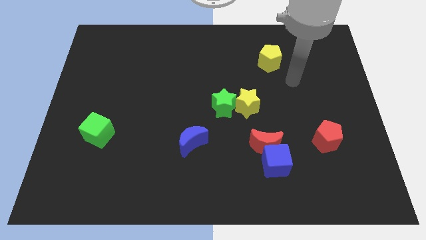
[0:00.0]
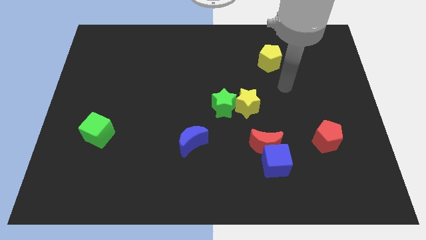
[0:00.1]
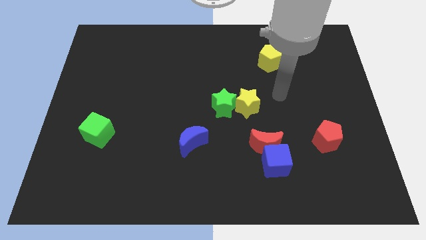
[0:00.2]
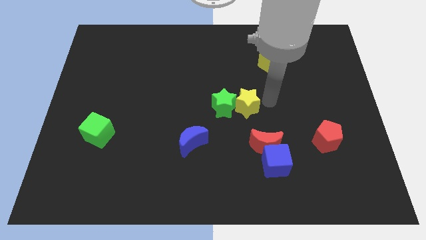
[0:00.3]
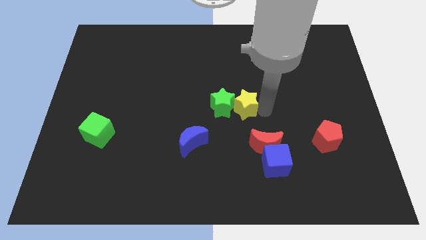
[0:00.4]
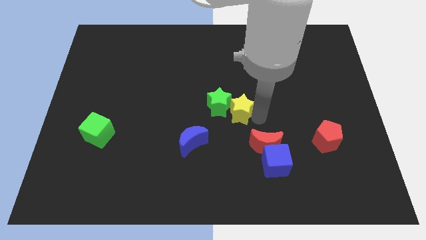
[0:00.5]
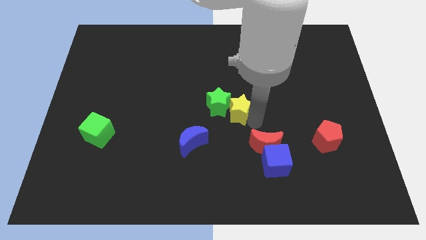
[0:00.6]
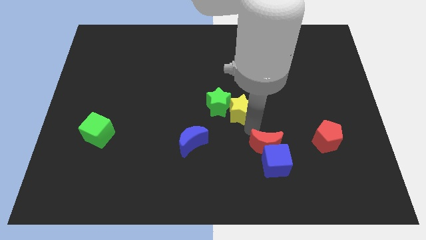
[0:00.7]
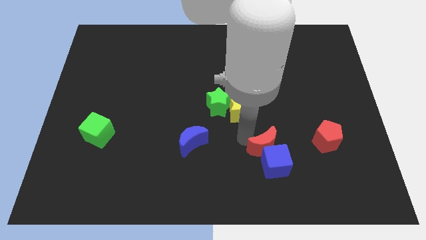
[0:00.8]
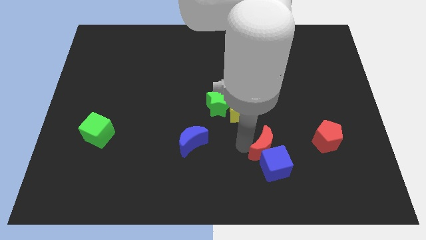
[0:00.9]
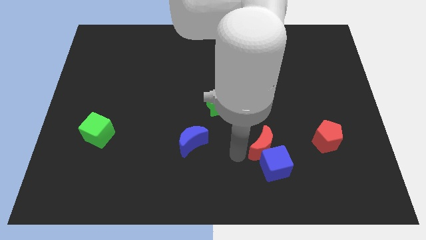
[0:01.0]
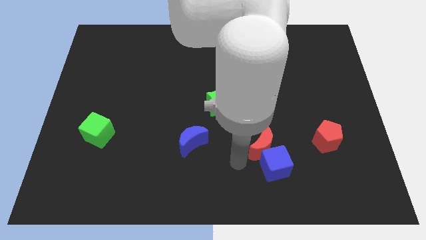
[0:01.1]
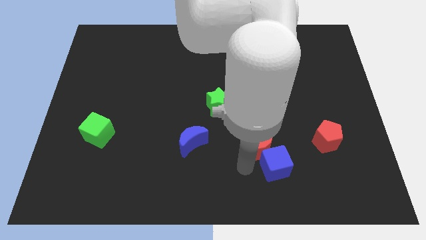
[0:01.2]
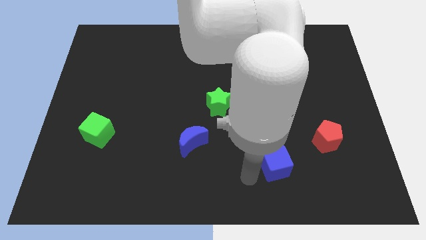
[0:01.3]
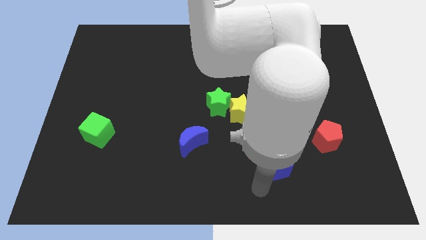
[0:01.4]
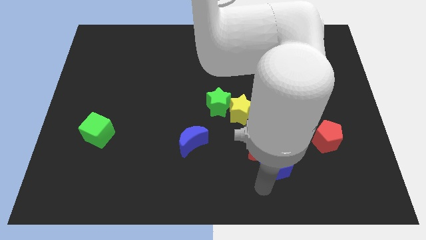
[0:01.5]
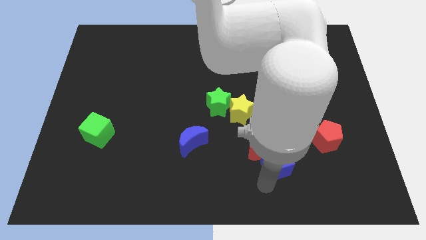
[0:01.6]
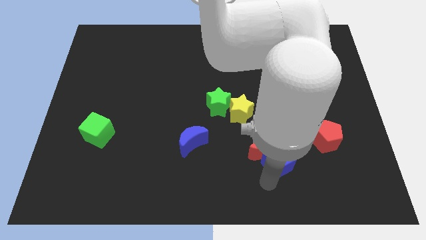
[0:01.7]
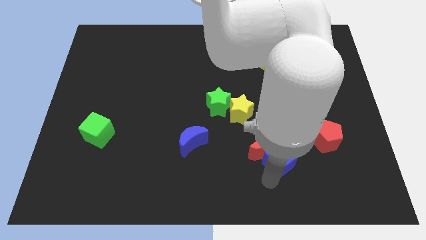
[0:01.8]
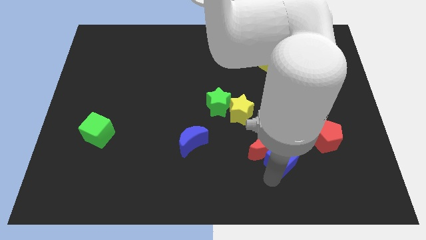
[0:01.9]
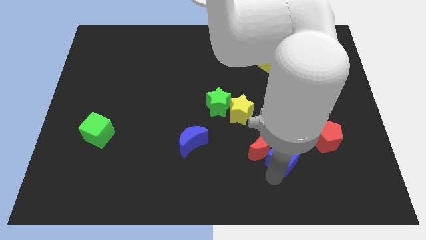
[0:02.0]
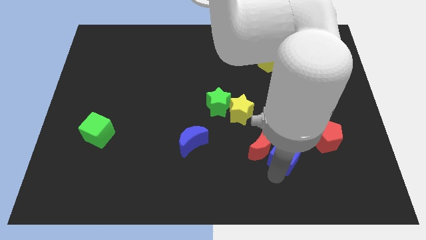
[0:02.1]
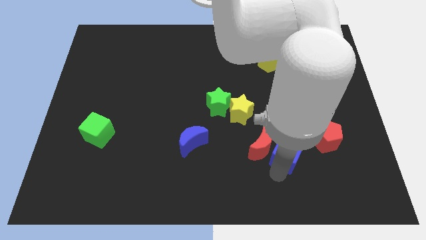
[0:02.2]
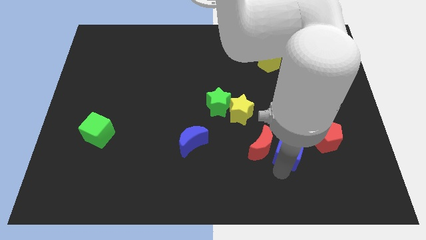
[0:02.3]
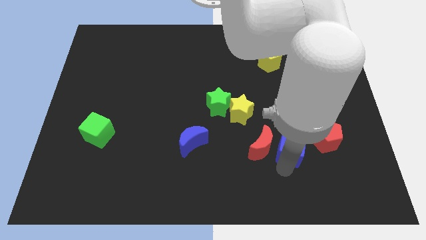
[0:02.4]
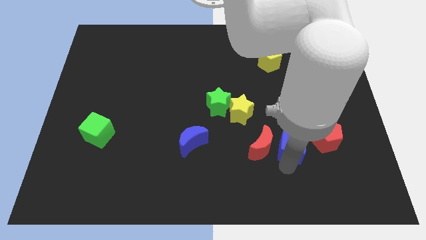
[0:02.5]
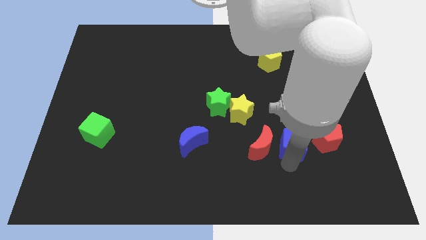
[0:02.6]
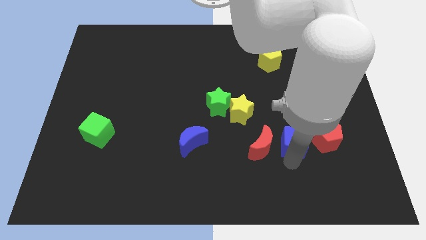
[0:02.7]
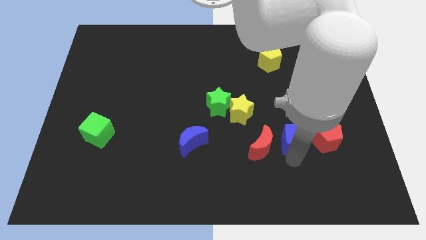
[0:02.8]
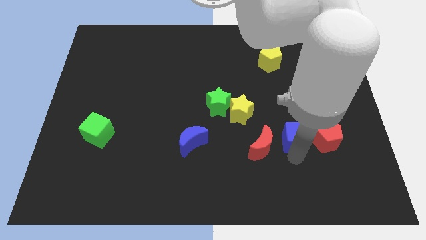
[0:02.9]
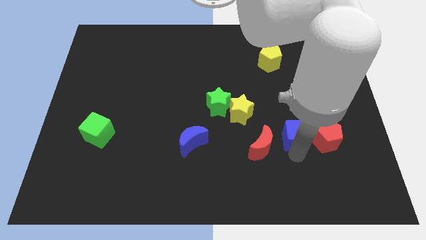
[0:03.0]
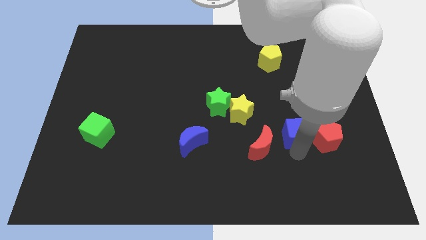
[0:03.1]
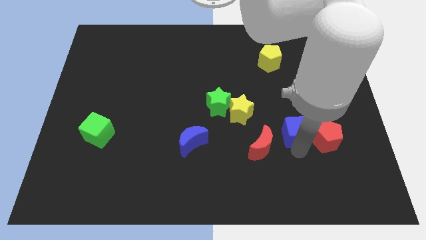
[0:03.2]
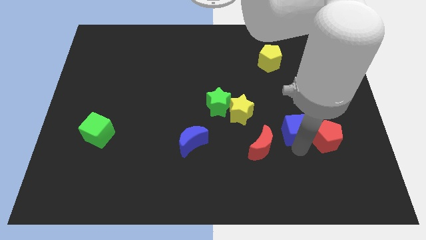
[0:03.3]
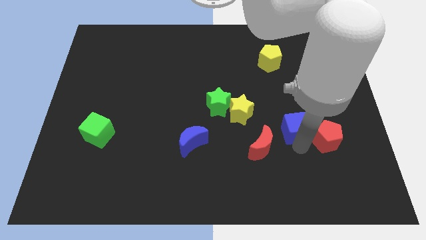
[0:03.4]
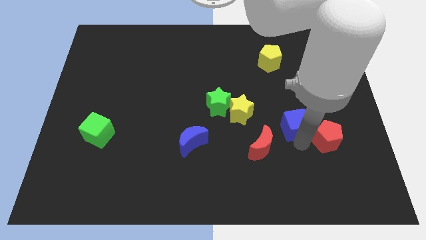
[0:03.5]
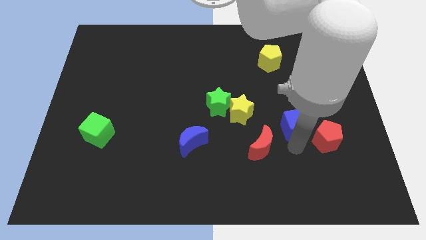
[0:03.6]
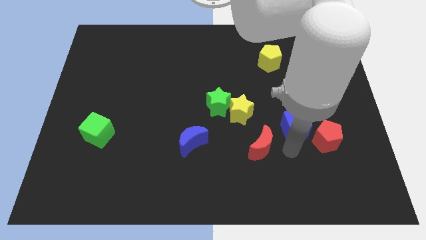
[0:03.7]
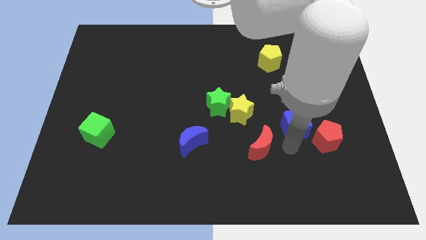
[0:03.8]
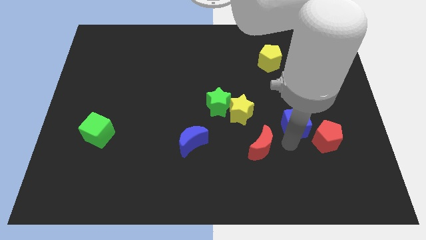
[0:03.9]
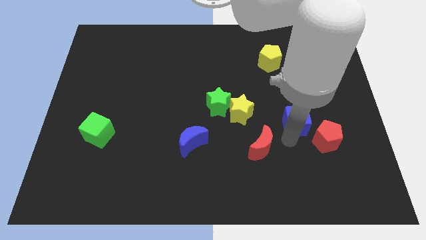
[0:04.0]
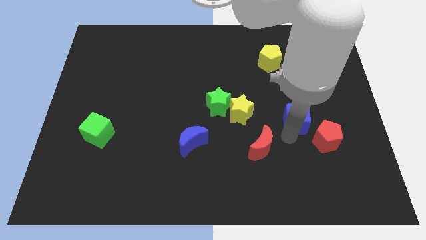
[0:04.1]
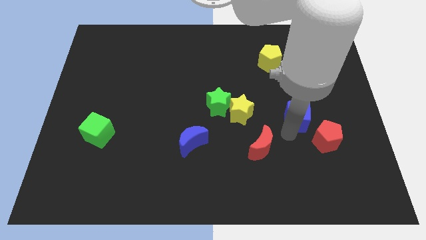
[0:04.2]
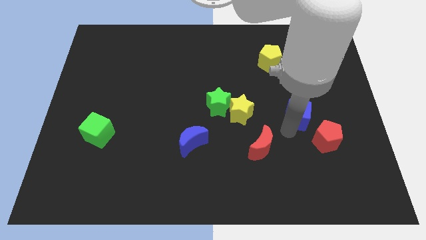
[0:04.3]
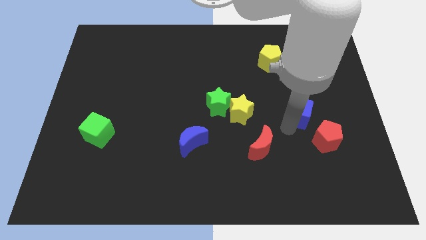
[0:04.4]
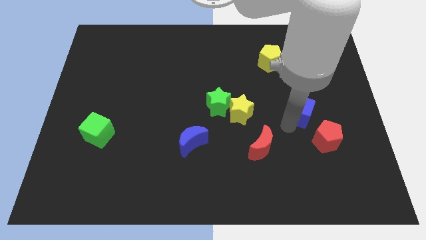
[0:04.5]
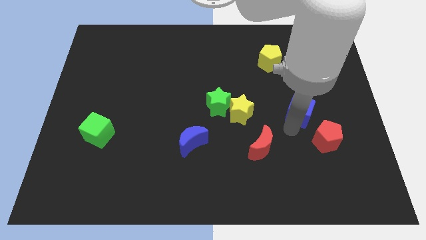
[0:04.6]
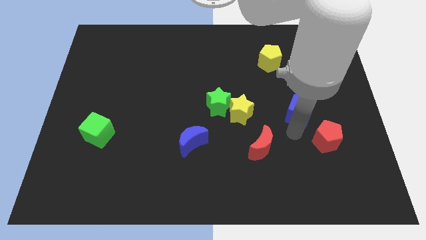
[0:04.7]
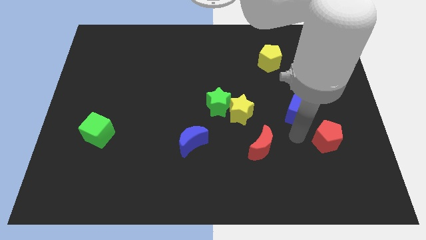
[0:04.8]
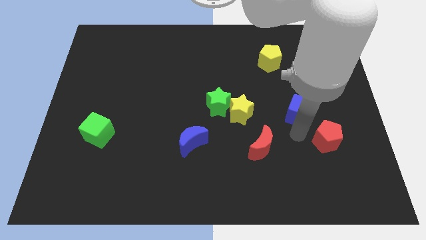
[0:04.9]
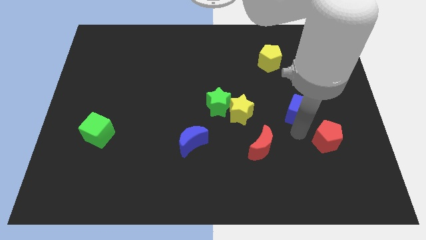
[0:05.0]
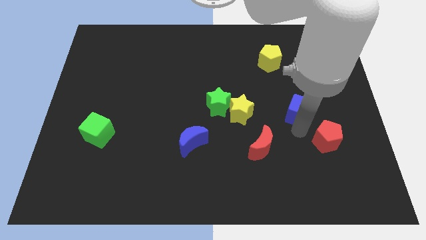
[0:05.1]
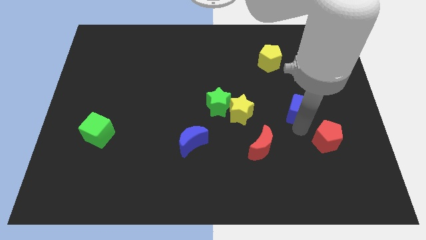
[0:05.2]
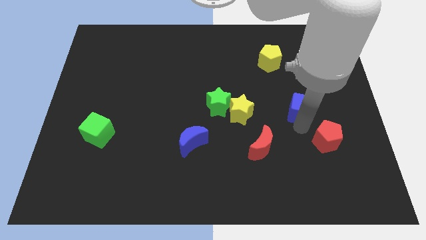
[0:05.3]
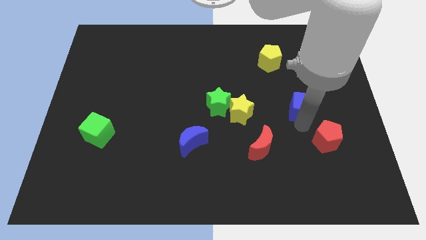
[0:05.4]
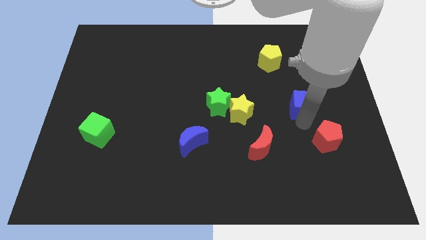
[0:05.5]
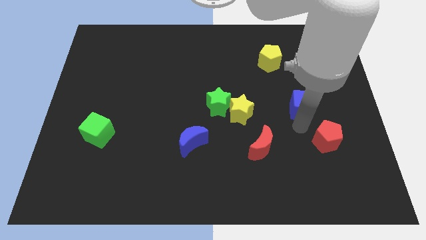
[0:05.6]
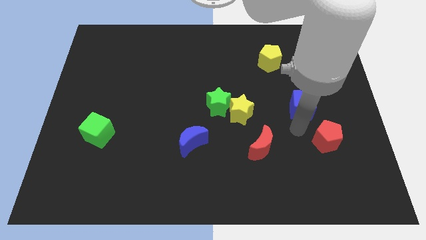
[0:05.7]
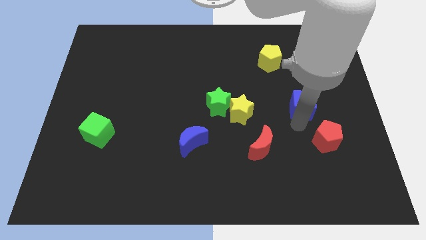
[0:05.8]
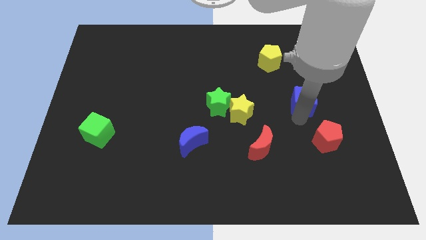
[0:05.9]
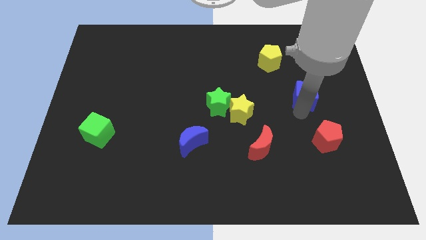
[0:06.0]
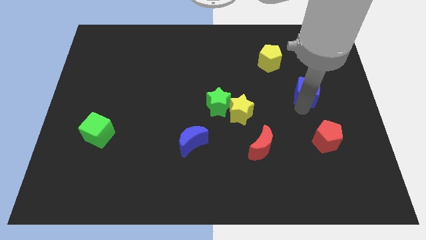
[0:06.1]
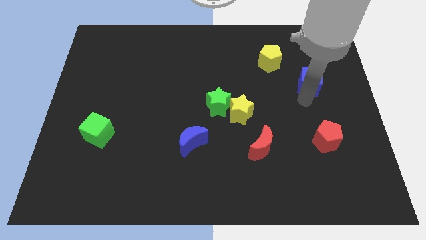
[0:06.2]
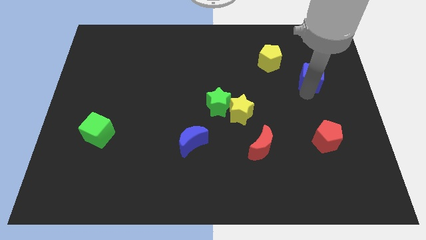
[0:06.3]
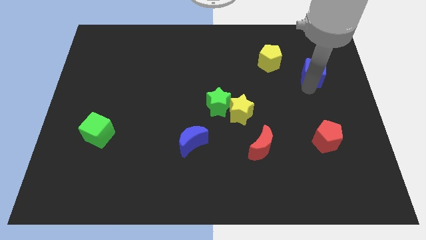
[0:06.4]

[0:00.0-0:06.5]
push the blue cube to the right of the yellow pentagon

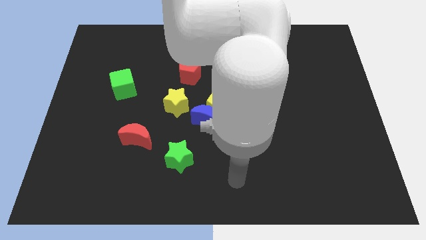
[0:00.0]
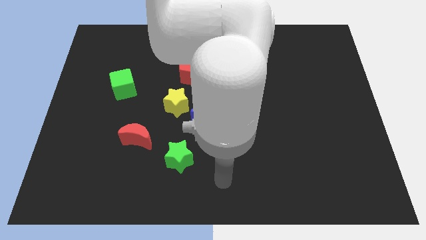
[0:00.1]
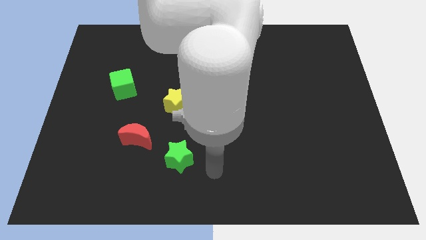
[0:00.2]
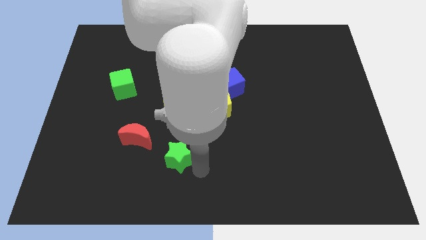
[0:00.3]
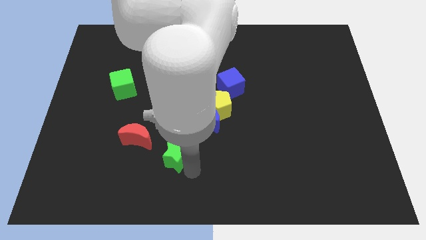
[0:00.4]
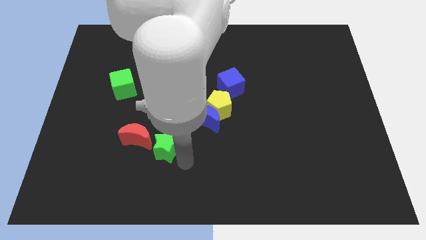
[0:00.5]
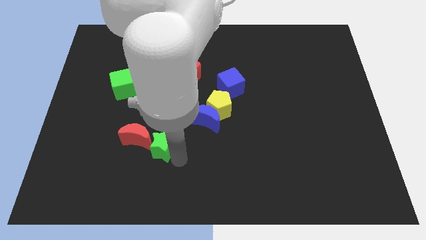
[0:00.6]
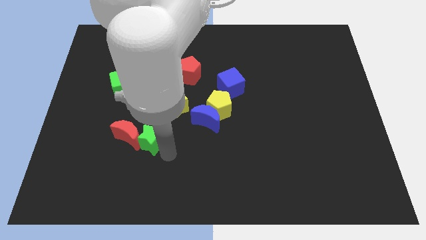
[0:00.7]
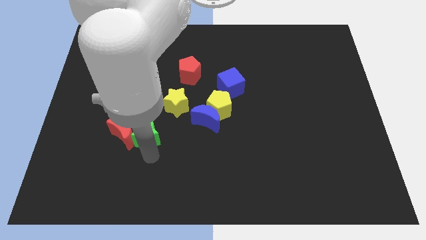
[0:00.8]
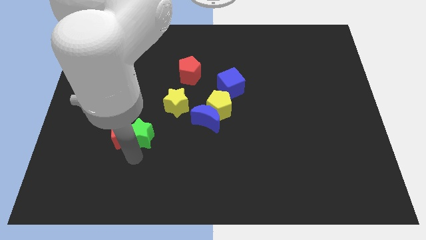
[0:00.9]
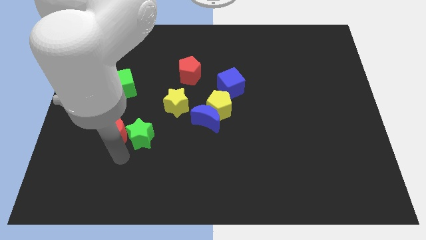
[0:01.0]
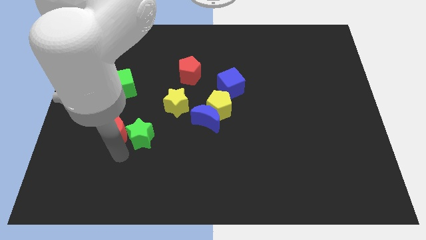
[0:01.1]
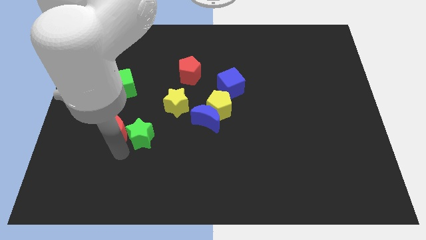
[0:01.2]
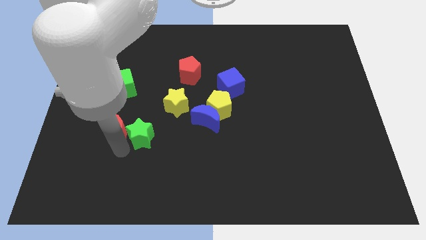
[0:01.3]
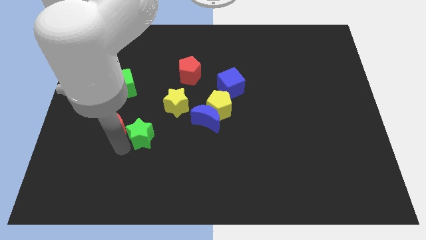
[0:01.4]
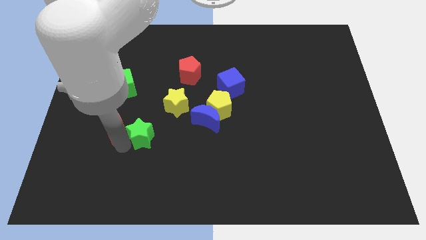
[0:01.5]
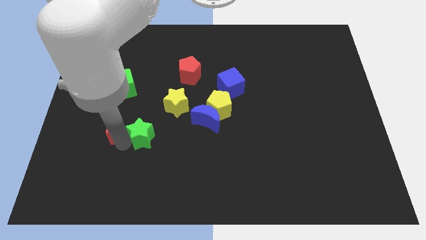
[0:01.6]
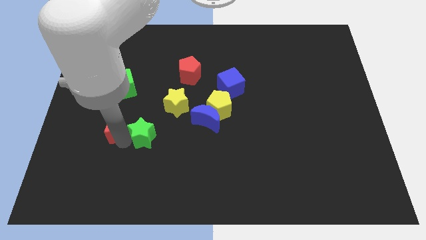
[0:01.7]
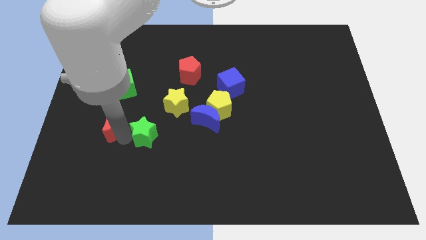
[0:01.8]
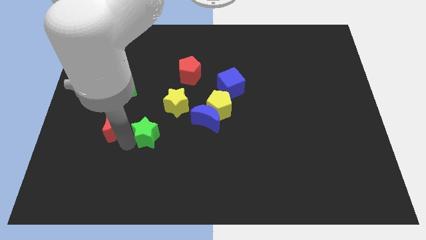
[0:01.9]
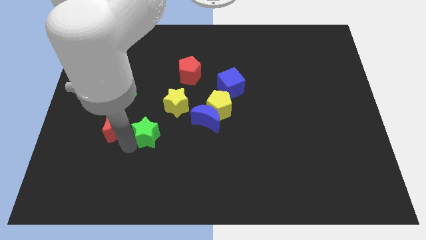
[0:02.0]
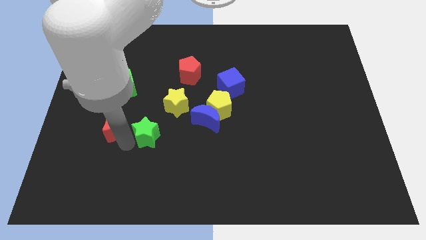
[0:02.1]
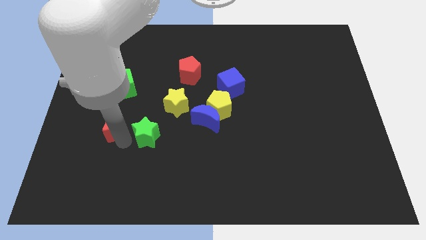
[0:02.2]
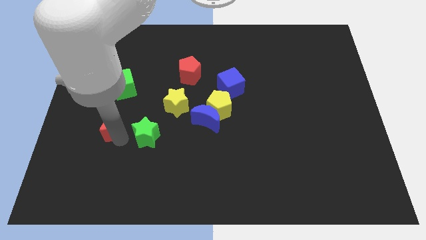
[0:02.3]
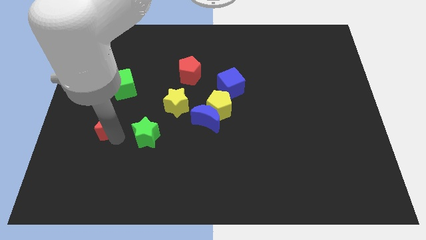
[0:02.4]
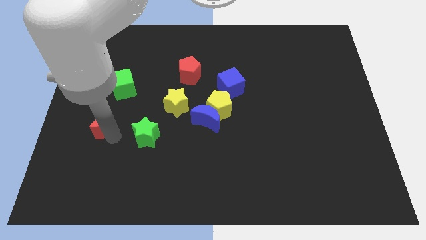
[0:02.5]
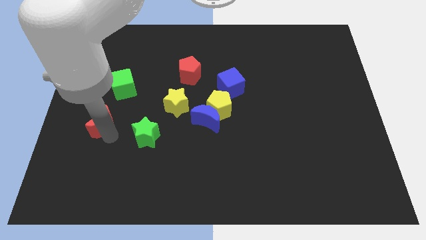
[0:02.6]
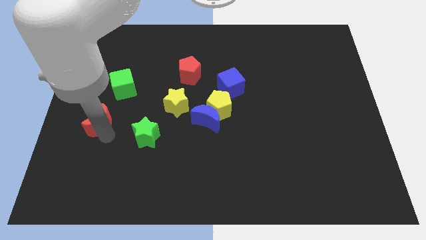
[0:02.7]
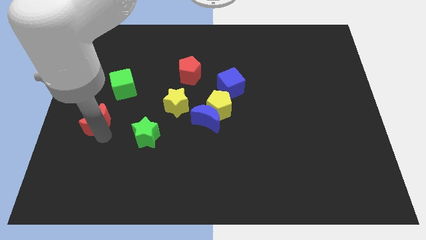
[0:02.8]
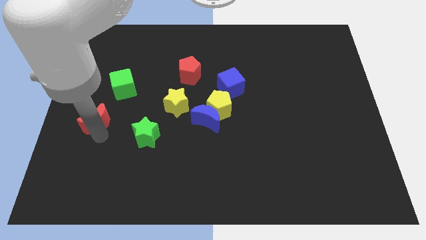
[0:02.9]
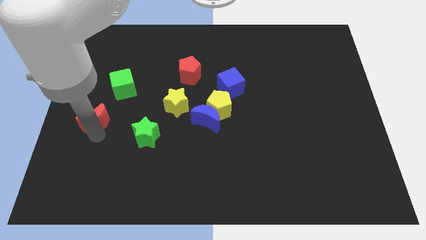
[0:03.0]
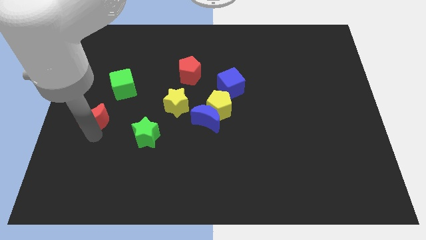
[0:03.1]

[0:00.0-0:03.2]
move the red moon to the bottom left side of the green cube
